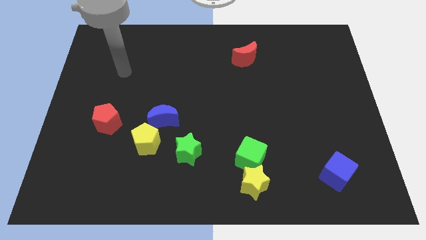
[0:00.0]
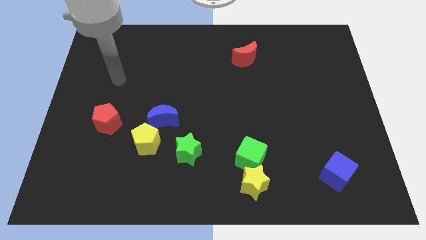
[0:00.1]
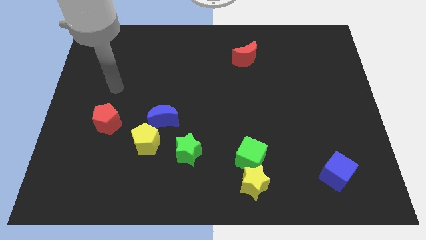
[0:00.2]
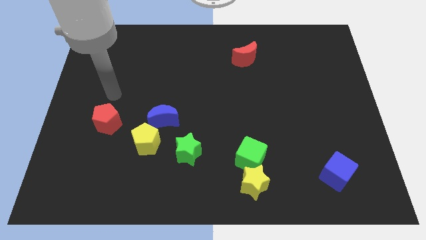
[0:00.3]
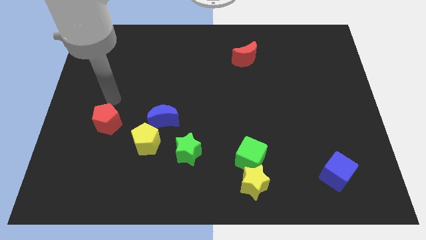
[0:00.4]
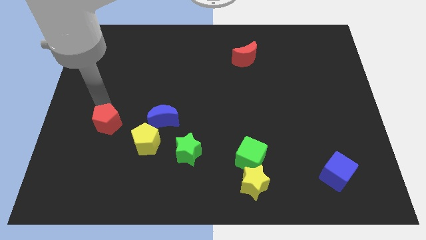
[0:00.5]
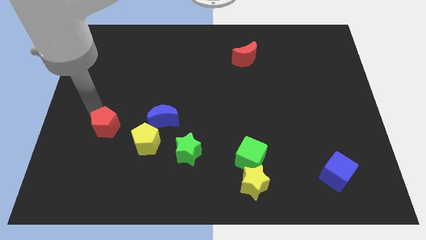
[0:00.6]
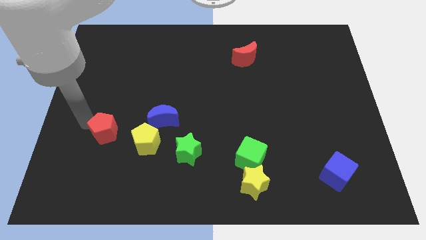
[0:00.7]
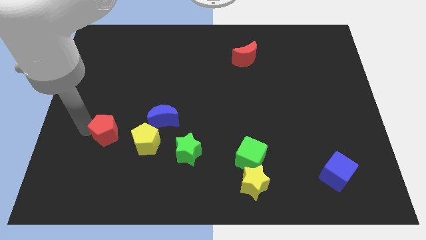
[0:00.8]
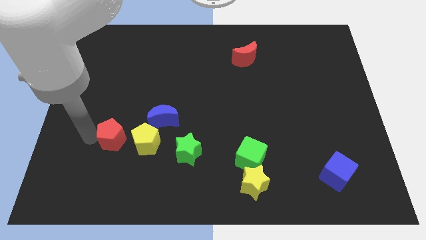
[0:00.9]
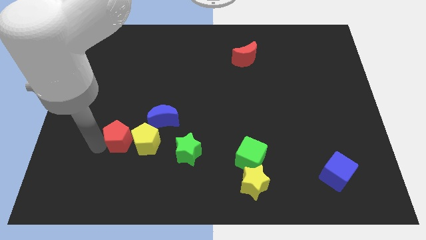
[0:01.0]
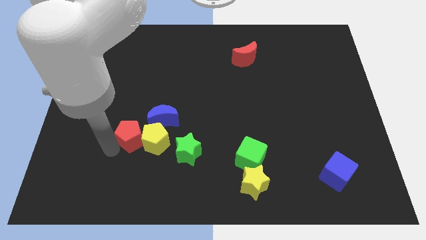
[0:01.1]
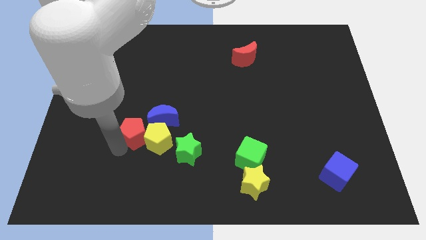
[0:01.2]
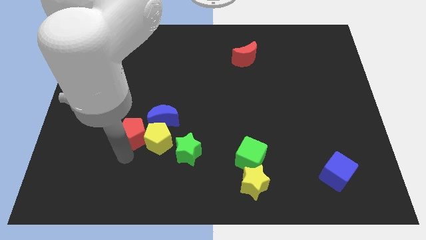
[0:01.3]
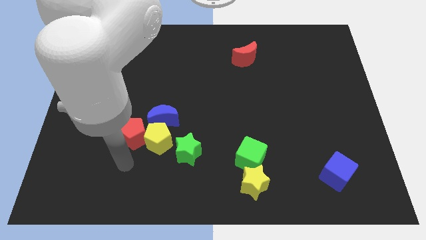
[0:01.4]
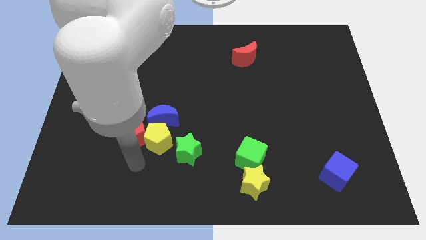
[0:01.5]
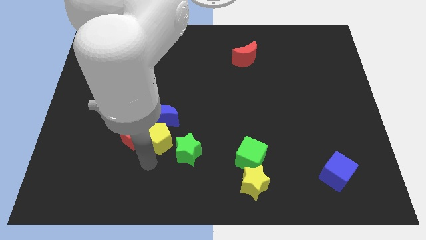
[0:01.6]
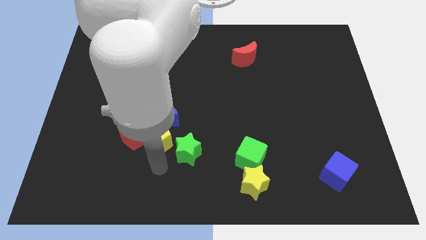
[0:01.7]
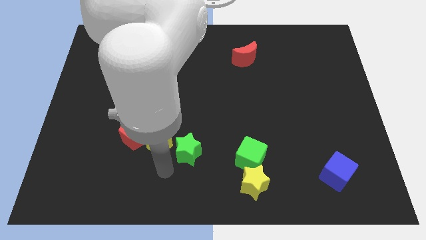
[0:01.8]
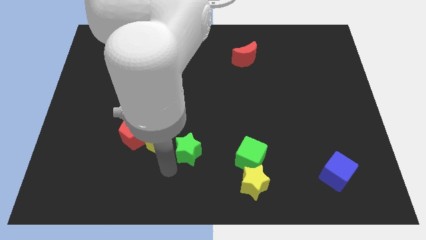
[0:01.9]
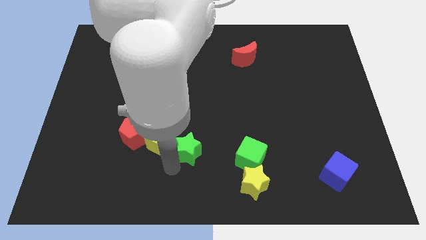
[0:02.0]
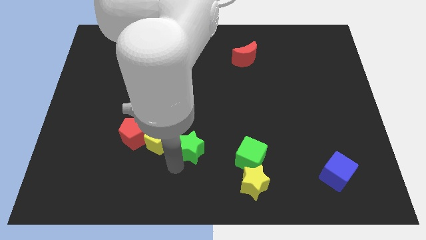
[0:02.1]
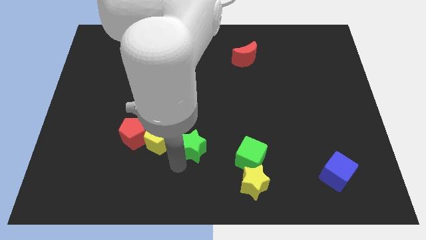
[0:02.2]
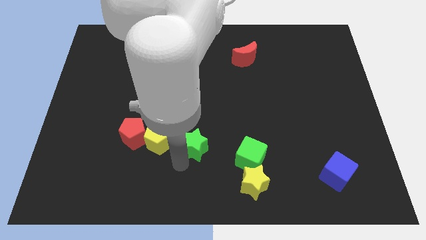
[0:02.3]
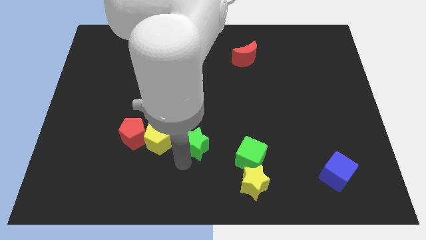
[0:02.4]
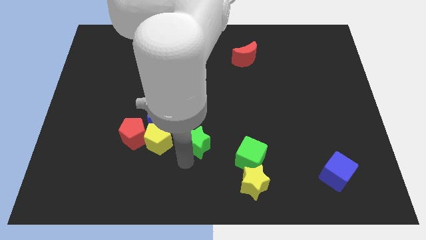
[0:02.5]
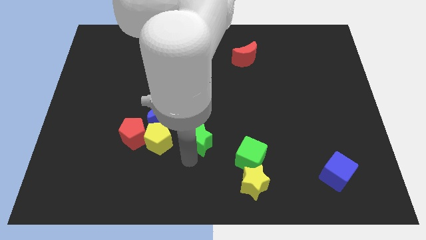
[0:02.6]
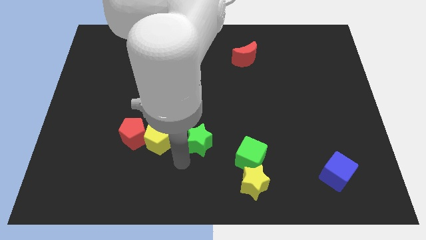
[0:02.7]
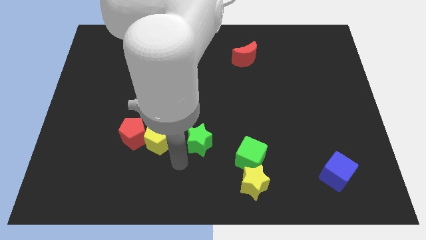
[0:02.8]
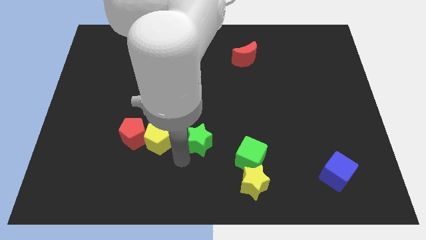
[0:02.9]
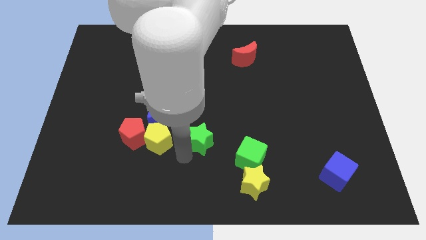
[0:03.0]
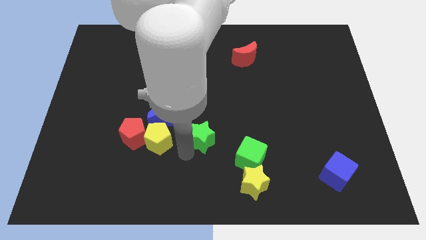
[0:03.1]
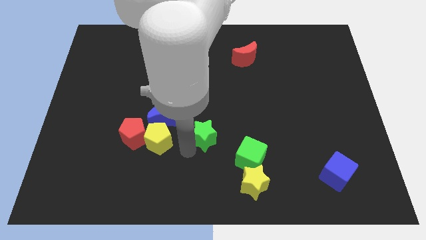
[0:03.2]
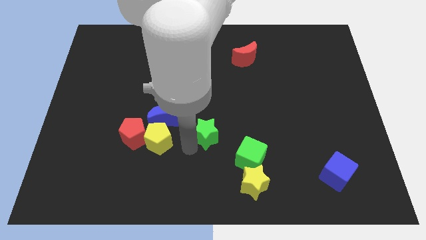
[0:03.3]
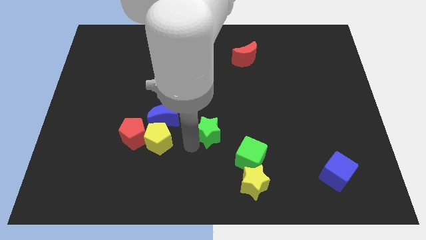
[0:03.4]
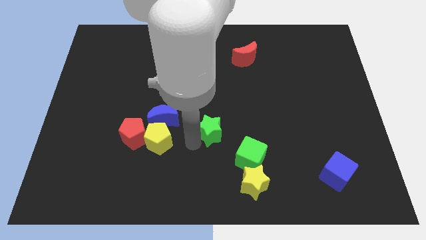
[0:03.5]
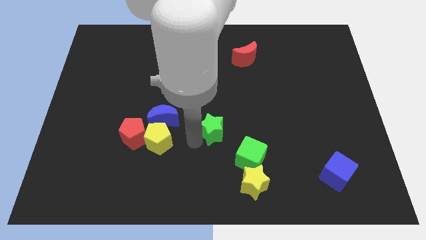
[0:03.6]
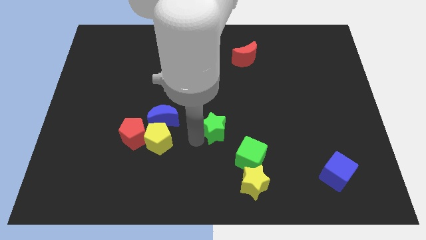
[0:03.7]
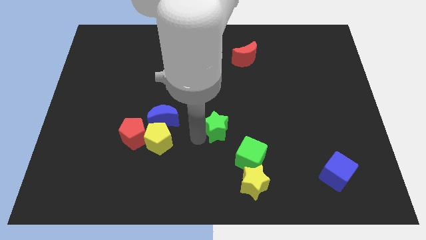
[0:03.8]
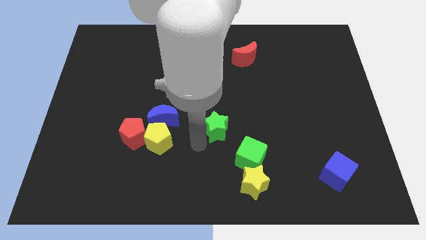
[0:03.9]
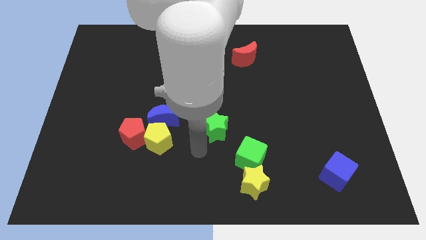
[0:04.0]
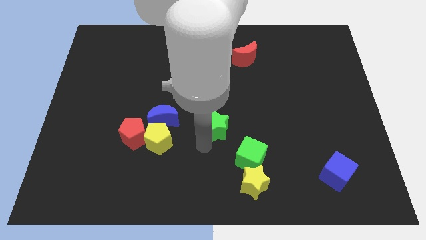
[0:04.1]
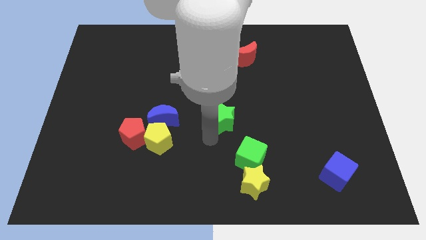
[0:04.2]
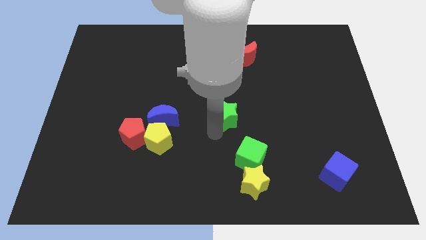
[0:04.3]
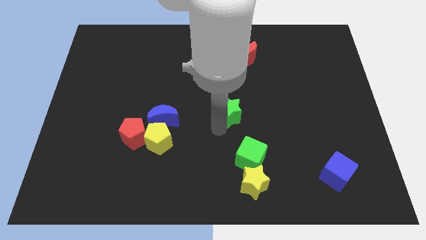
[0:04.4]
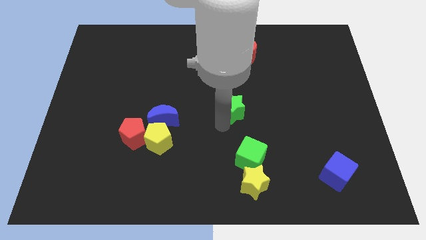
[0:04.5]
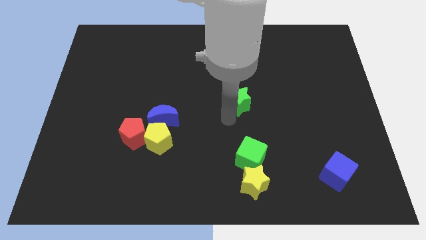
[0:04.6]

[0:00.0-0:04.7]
push the green star to the bottom of the red moon

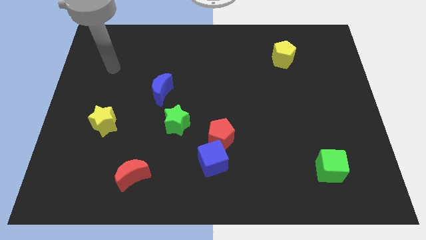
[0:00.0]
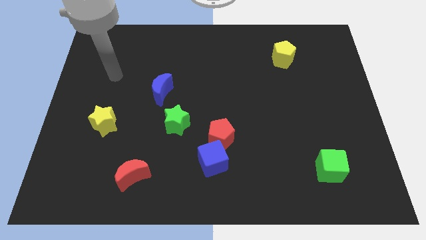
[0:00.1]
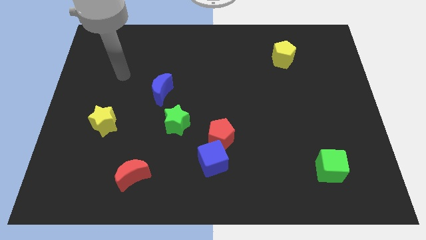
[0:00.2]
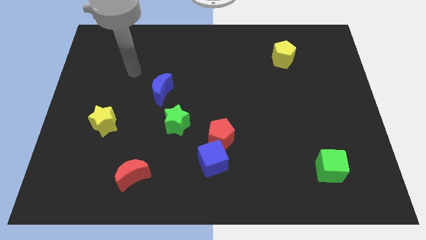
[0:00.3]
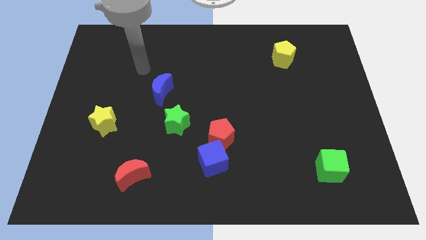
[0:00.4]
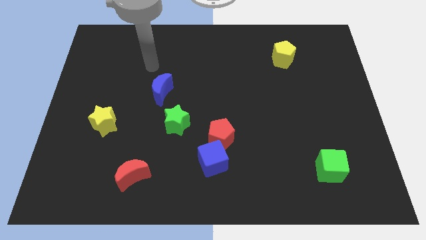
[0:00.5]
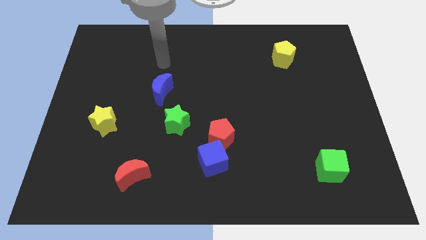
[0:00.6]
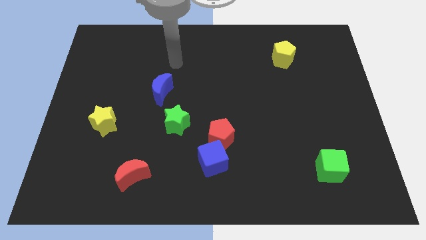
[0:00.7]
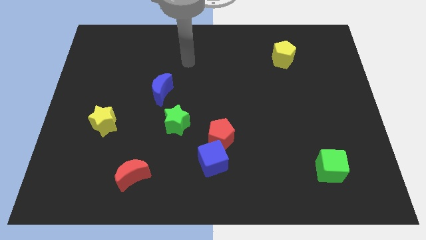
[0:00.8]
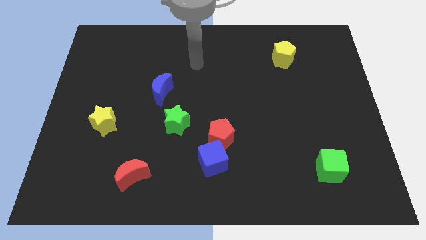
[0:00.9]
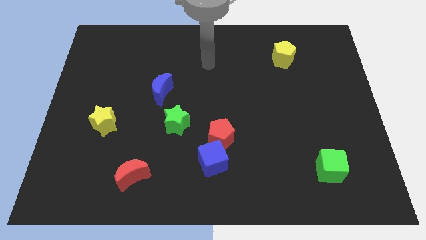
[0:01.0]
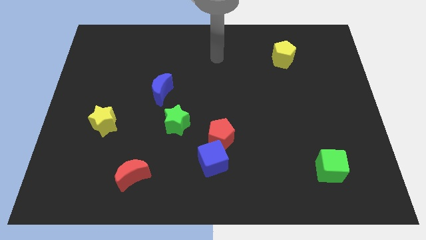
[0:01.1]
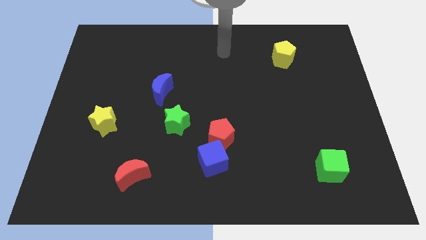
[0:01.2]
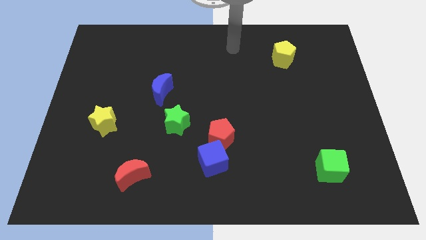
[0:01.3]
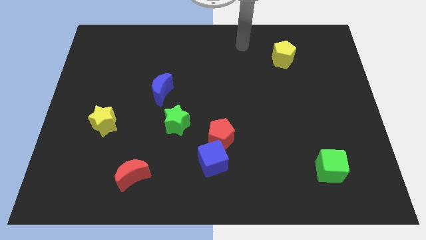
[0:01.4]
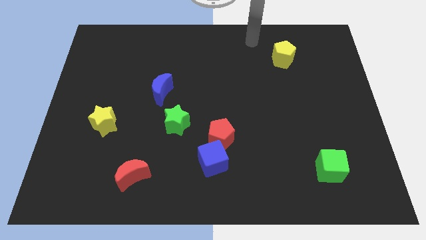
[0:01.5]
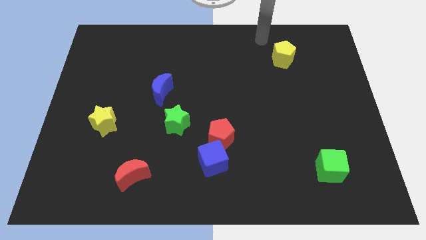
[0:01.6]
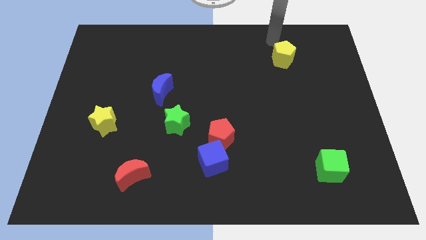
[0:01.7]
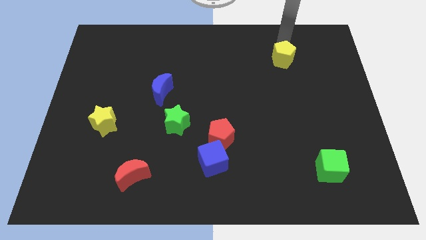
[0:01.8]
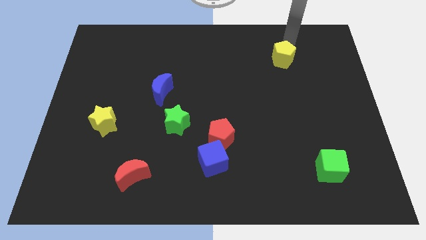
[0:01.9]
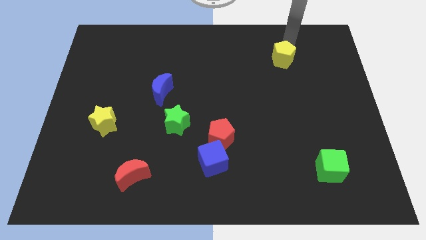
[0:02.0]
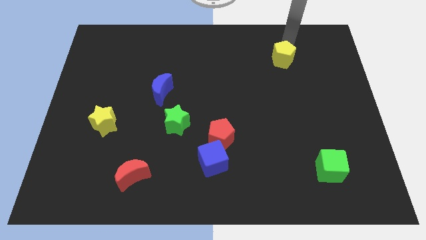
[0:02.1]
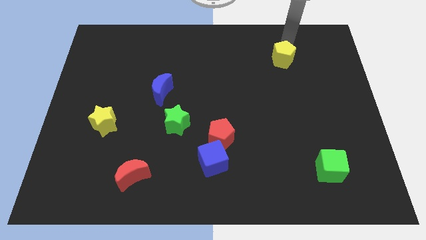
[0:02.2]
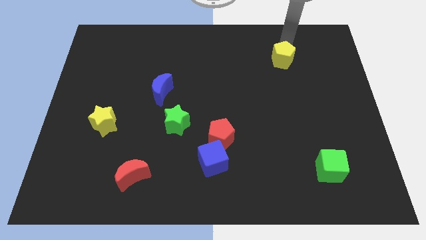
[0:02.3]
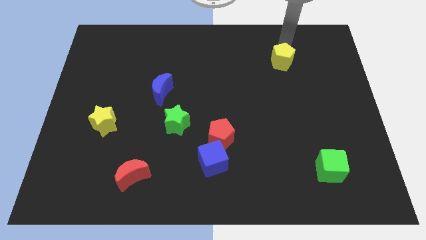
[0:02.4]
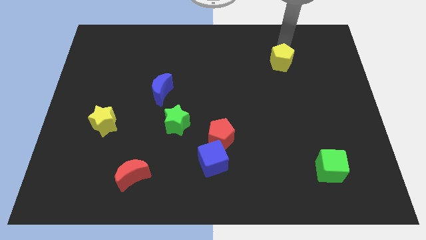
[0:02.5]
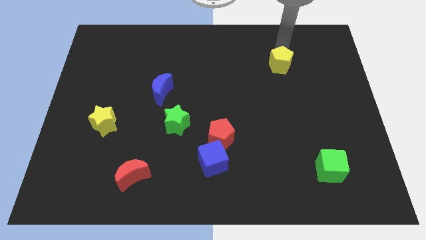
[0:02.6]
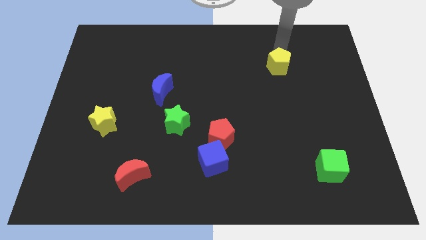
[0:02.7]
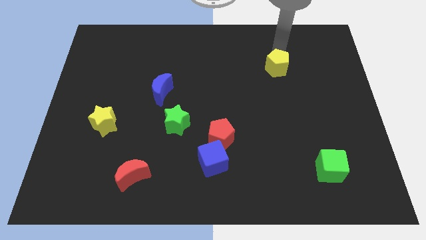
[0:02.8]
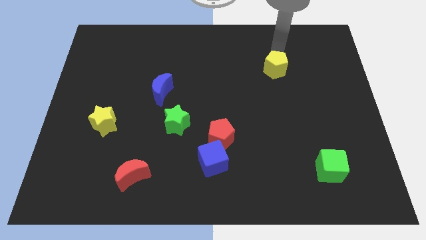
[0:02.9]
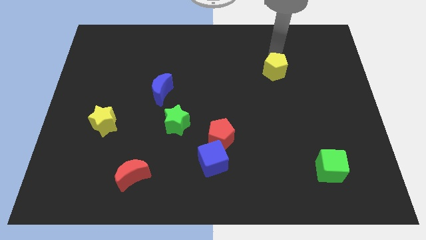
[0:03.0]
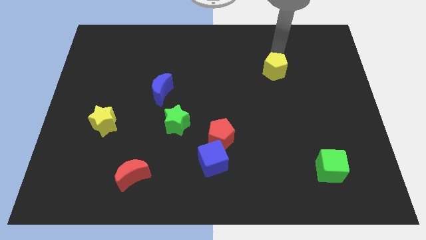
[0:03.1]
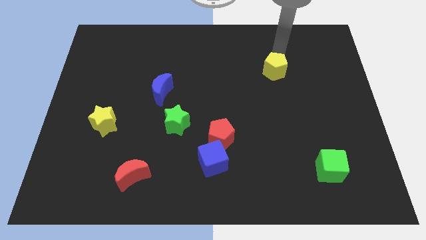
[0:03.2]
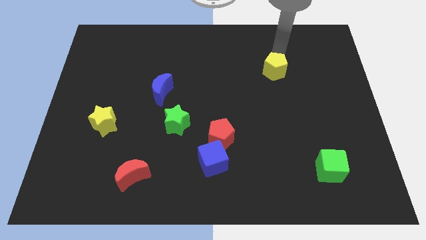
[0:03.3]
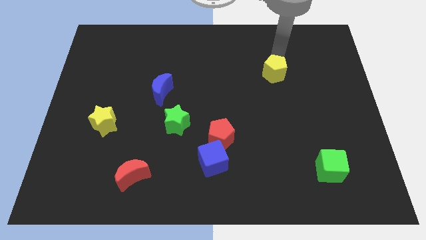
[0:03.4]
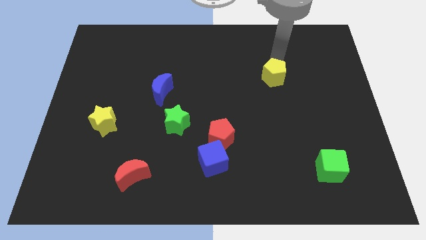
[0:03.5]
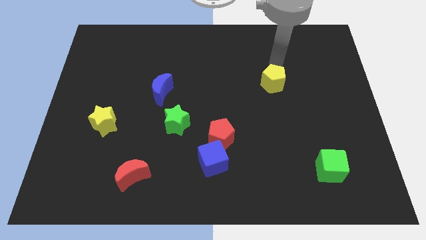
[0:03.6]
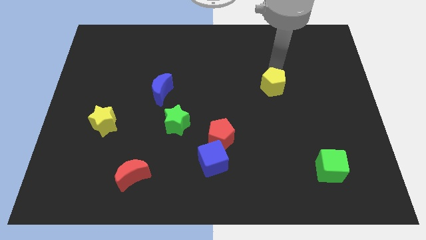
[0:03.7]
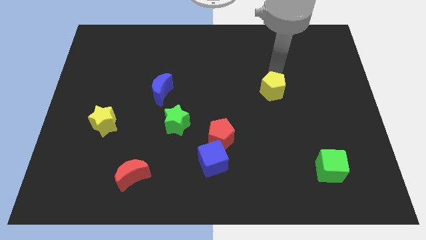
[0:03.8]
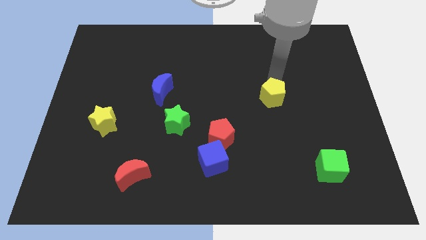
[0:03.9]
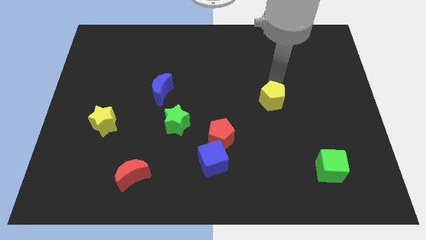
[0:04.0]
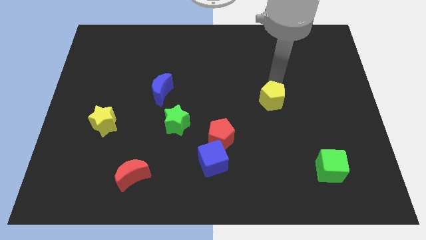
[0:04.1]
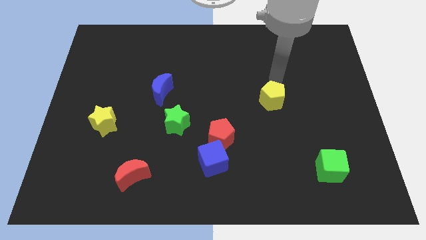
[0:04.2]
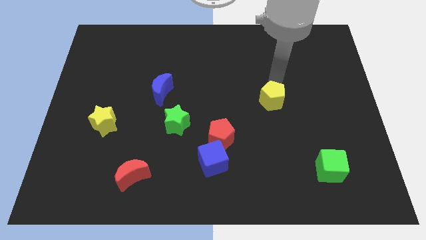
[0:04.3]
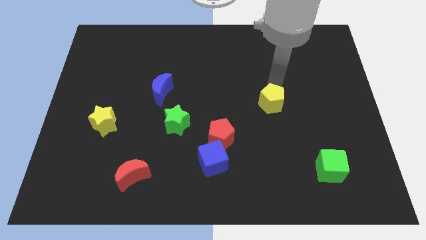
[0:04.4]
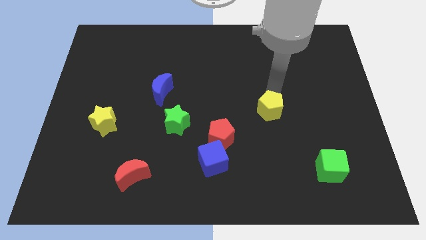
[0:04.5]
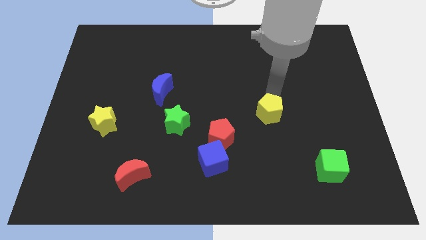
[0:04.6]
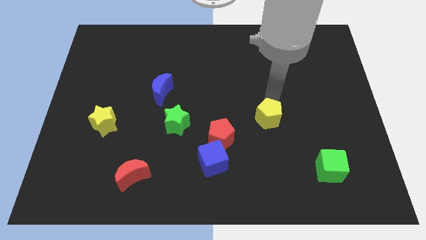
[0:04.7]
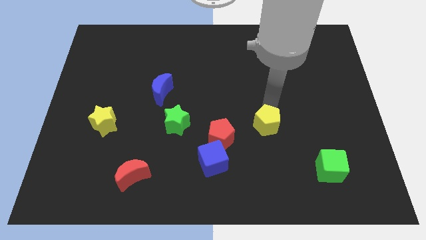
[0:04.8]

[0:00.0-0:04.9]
put the yellow pentagon to the right of the red pentagon
